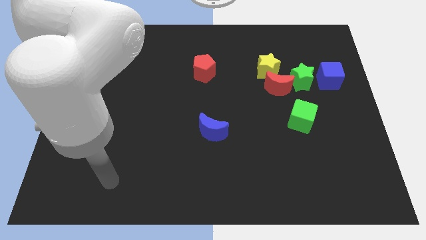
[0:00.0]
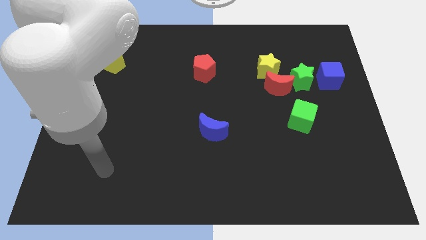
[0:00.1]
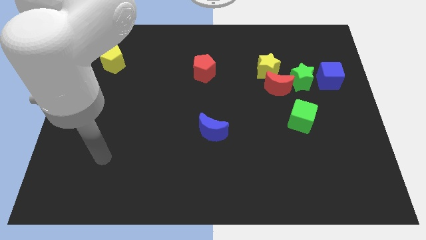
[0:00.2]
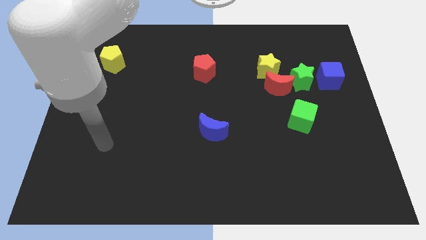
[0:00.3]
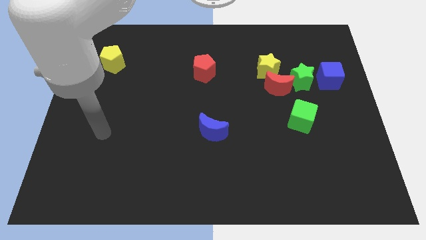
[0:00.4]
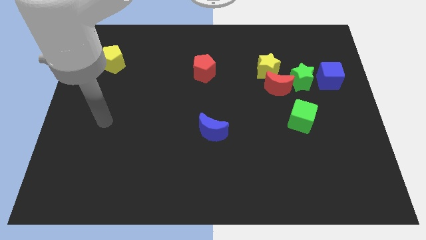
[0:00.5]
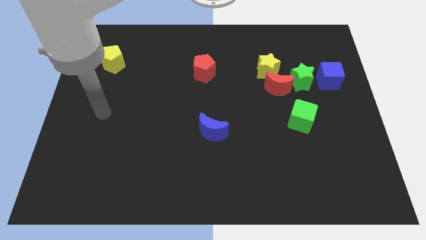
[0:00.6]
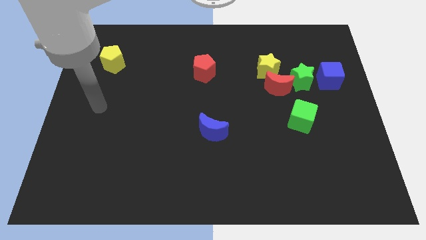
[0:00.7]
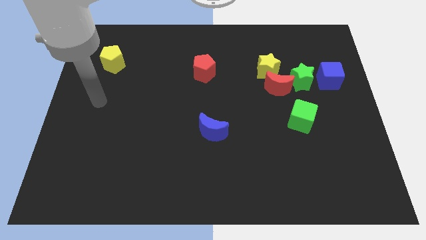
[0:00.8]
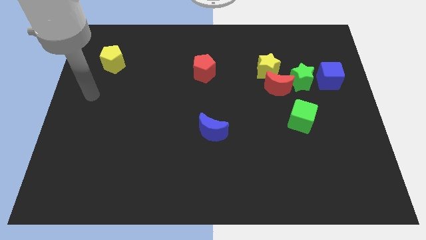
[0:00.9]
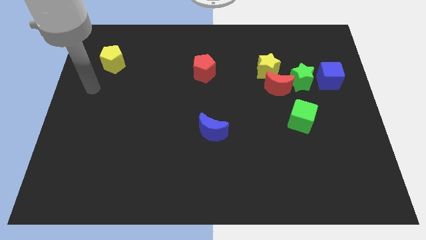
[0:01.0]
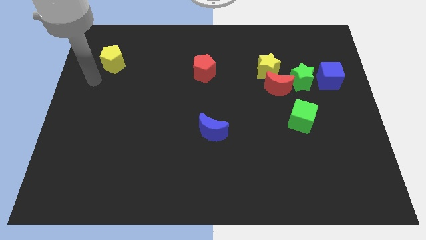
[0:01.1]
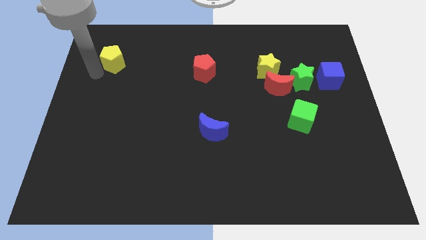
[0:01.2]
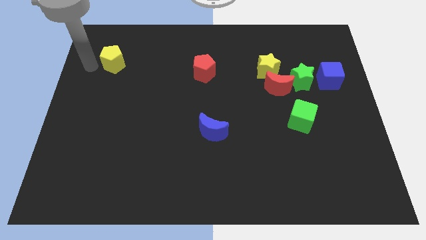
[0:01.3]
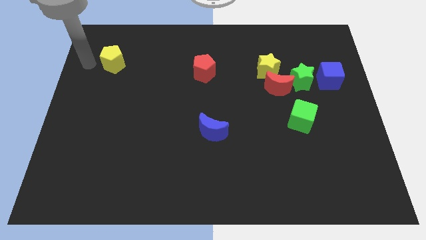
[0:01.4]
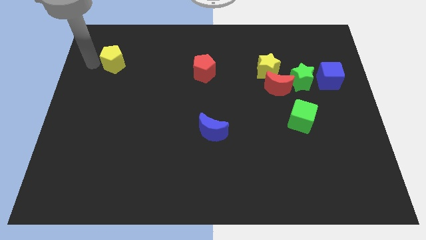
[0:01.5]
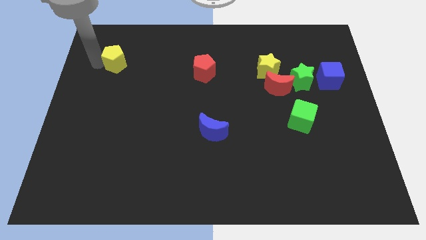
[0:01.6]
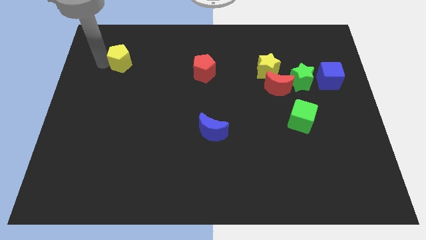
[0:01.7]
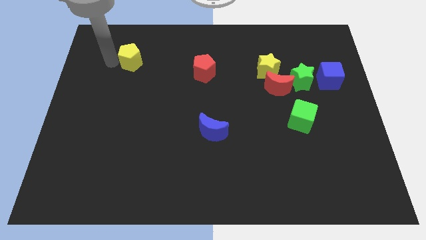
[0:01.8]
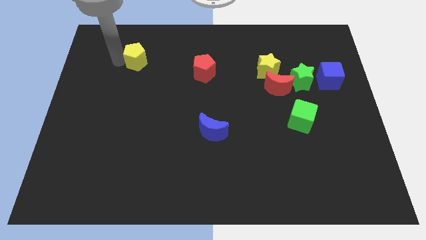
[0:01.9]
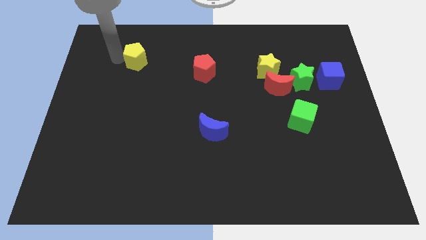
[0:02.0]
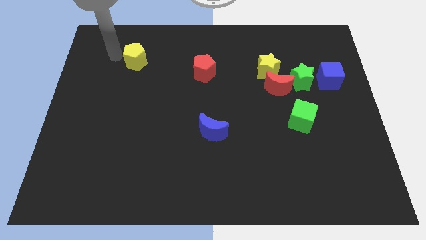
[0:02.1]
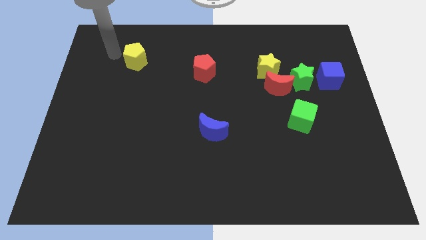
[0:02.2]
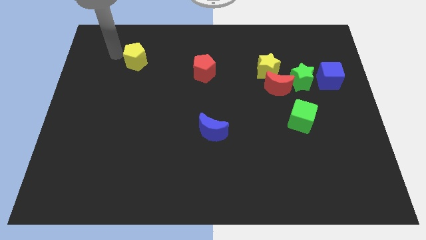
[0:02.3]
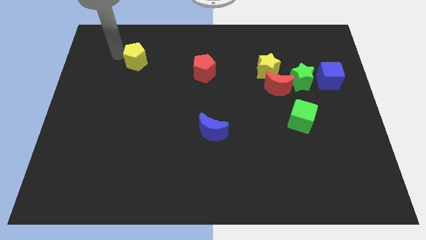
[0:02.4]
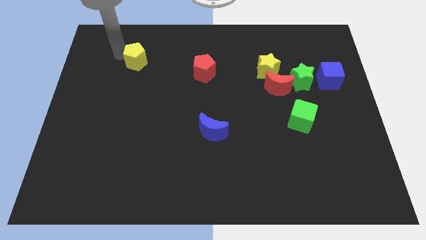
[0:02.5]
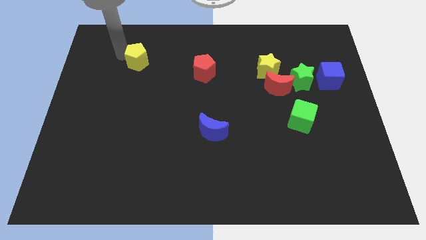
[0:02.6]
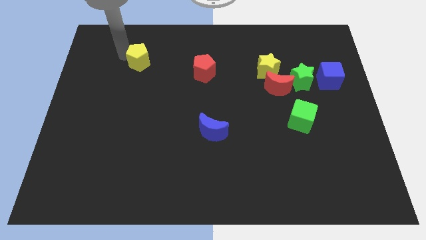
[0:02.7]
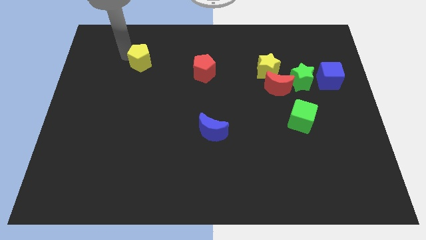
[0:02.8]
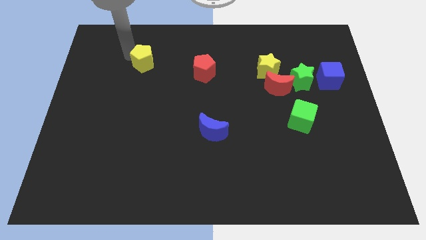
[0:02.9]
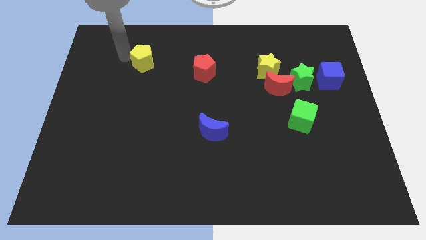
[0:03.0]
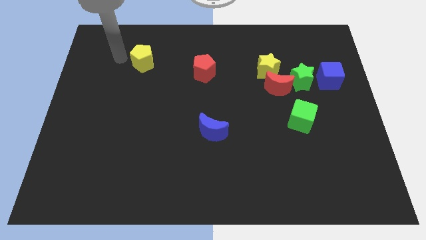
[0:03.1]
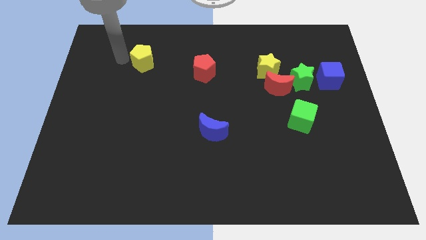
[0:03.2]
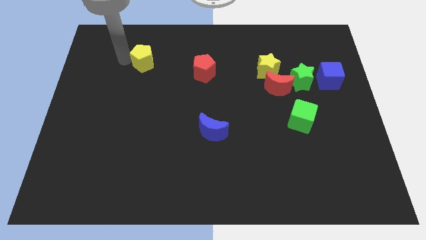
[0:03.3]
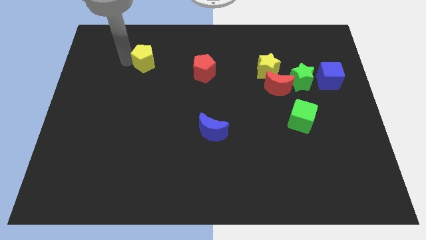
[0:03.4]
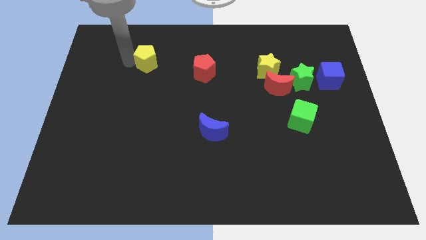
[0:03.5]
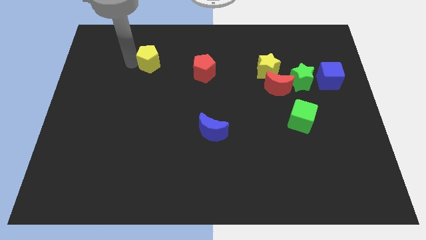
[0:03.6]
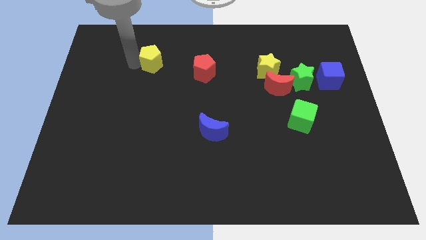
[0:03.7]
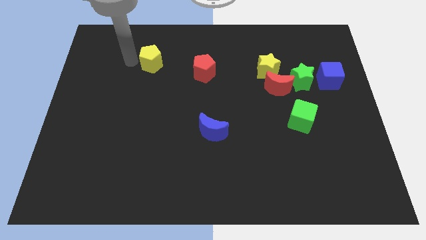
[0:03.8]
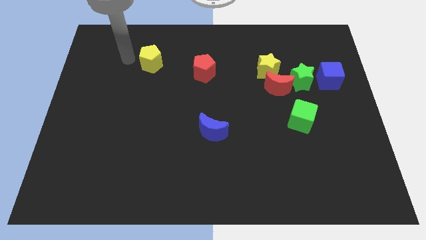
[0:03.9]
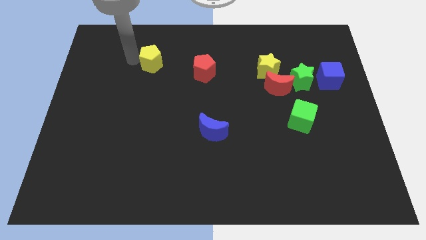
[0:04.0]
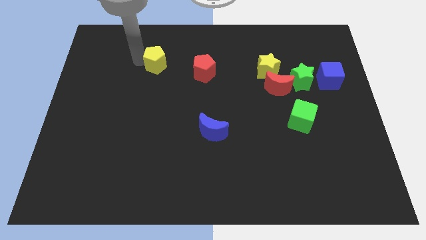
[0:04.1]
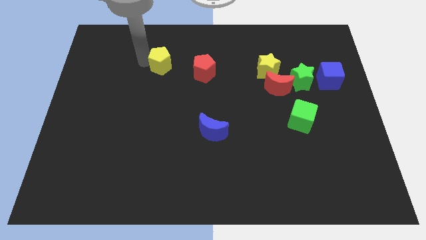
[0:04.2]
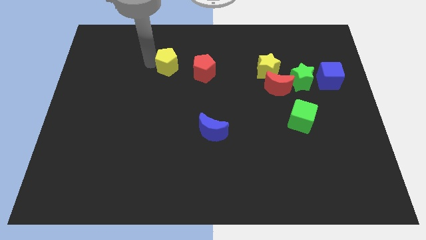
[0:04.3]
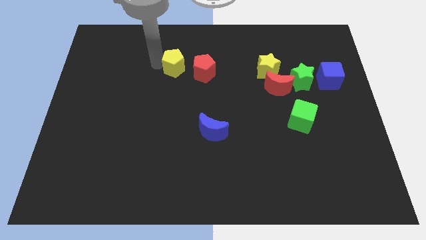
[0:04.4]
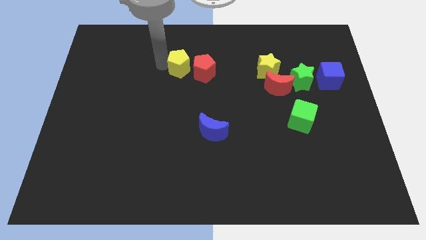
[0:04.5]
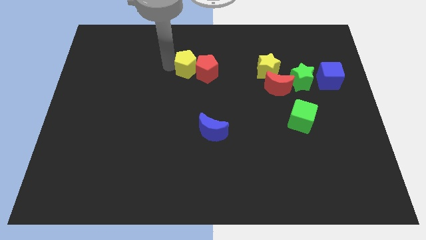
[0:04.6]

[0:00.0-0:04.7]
move the yellow pentagon next to the red pentagon

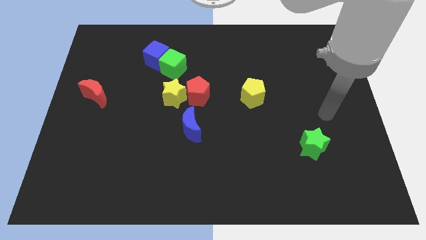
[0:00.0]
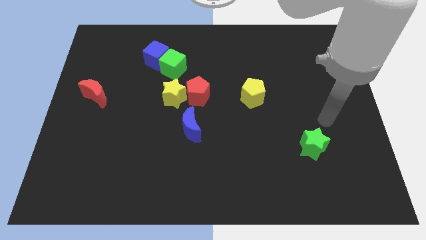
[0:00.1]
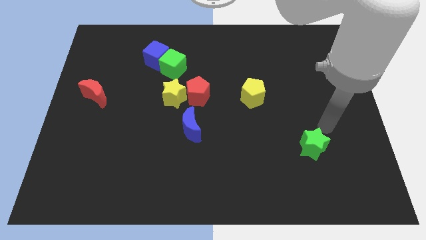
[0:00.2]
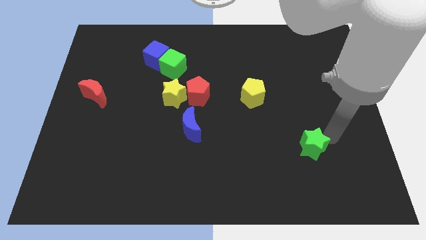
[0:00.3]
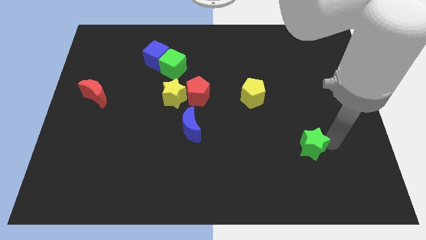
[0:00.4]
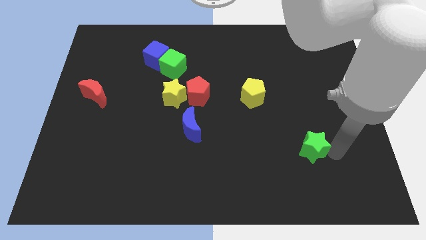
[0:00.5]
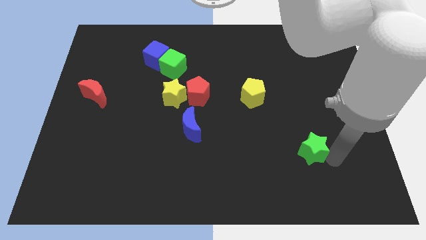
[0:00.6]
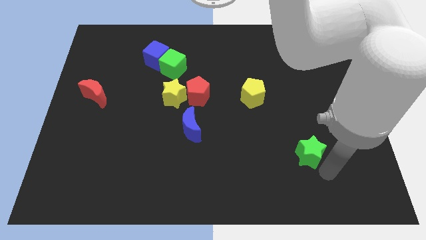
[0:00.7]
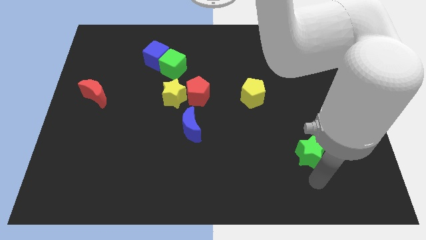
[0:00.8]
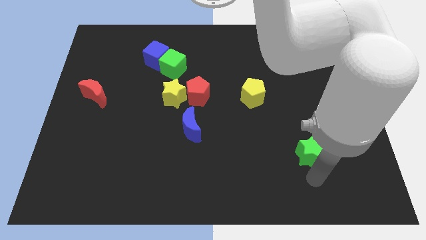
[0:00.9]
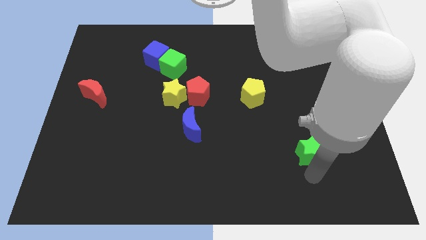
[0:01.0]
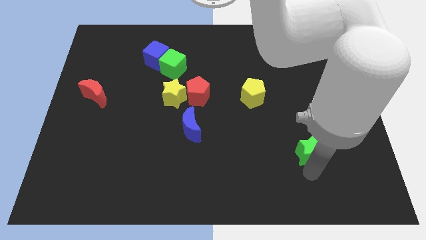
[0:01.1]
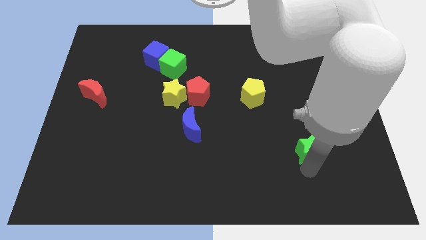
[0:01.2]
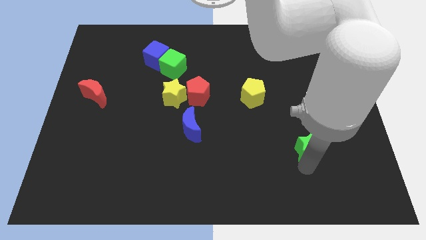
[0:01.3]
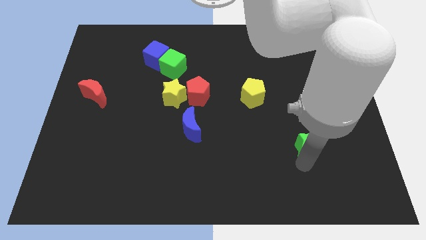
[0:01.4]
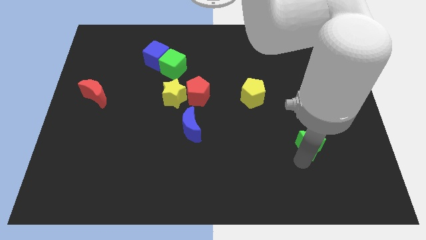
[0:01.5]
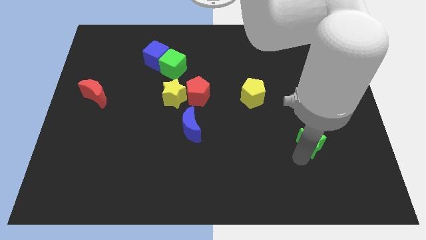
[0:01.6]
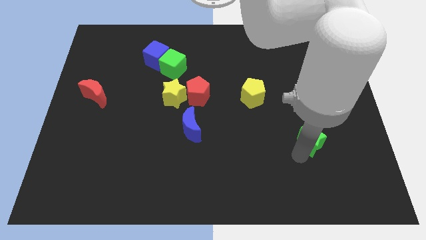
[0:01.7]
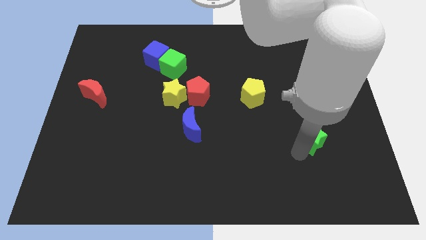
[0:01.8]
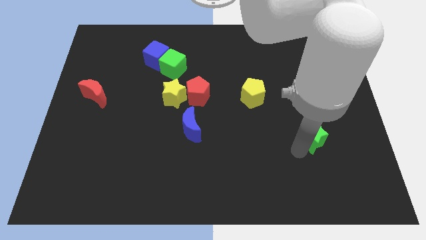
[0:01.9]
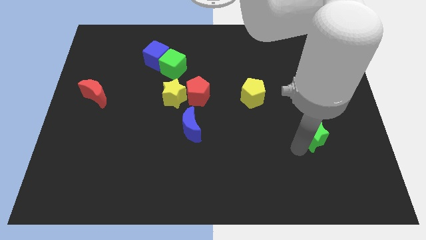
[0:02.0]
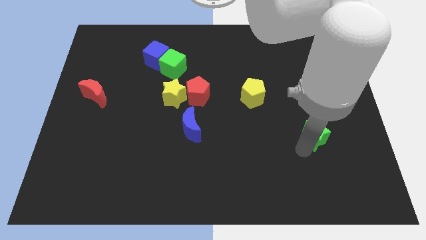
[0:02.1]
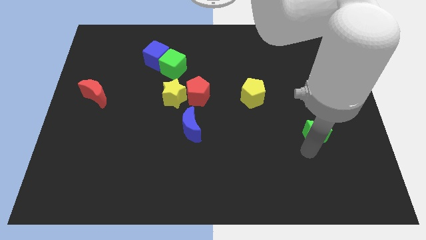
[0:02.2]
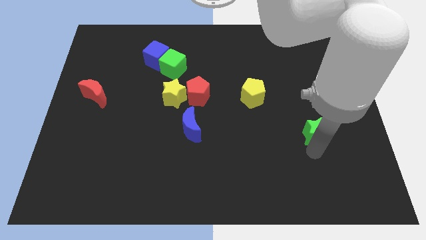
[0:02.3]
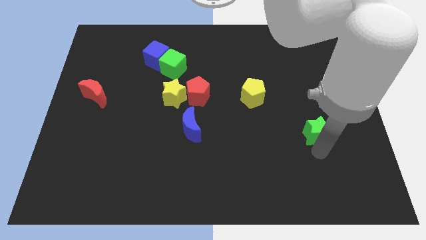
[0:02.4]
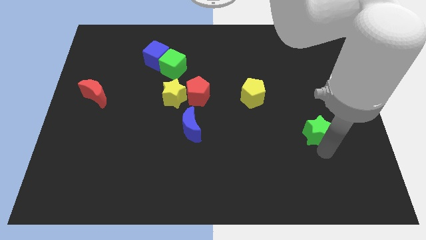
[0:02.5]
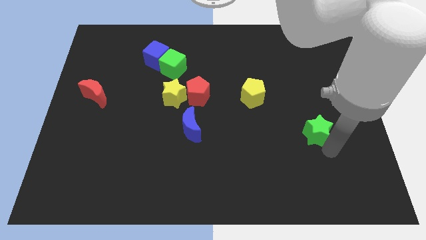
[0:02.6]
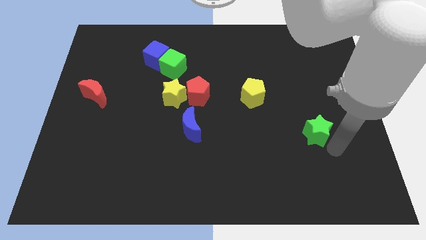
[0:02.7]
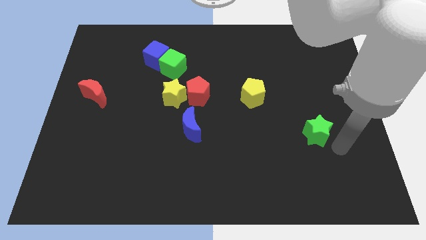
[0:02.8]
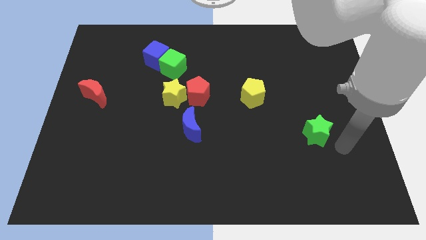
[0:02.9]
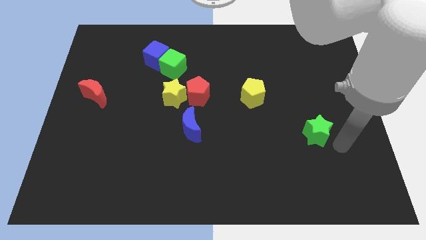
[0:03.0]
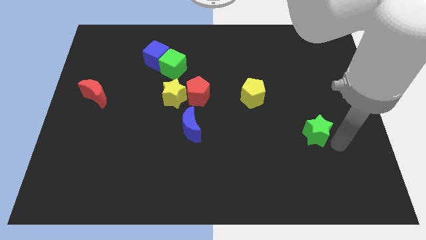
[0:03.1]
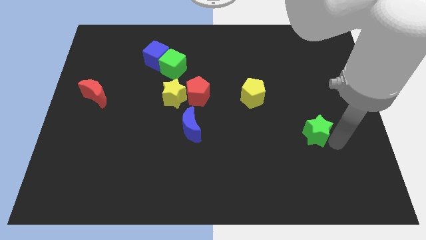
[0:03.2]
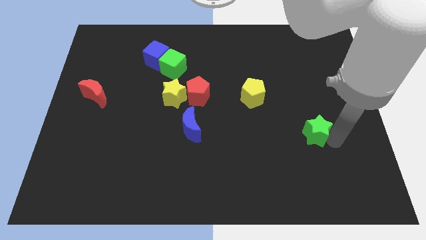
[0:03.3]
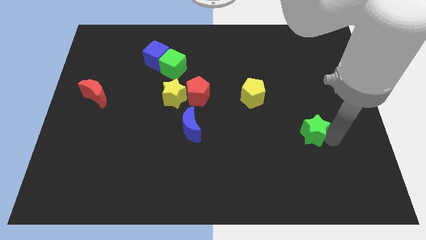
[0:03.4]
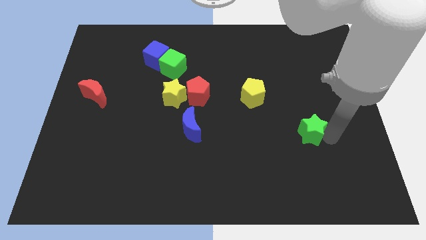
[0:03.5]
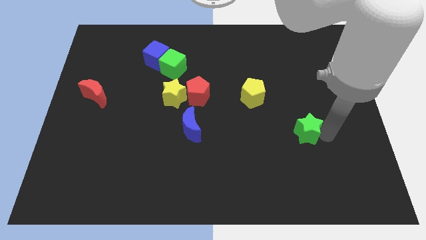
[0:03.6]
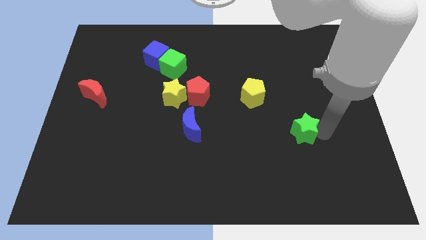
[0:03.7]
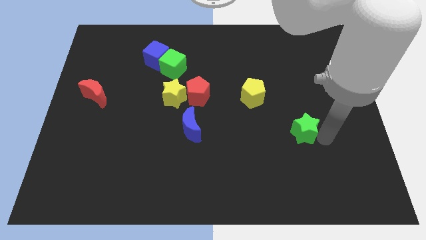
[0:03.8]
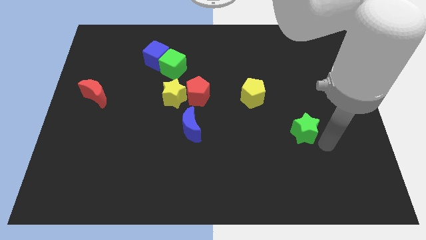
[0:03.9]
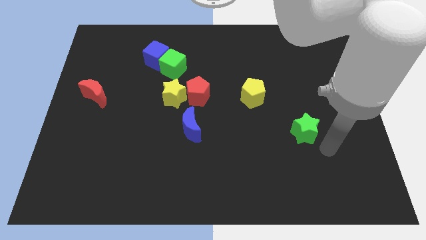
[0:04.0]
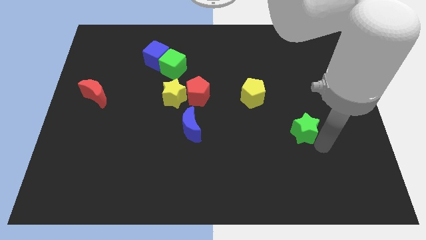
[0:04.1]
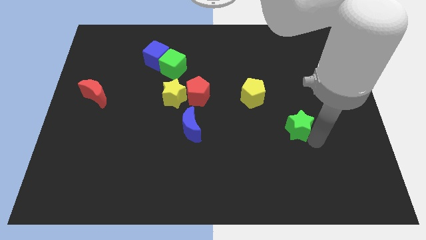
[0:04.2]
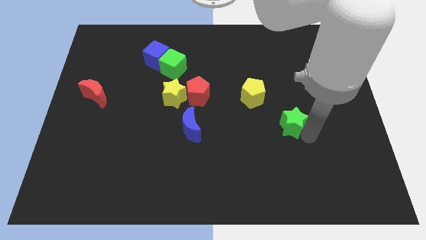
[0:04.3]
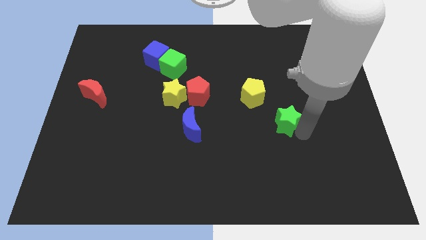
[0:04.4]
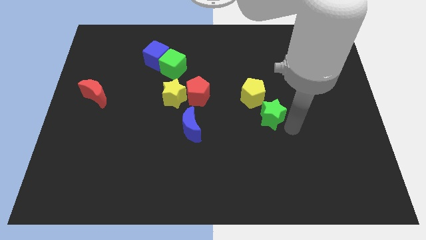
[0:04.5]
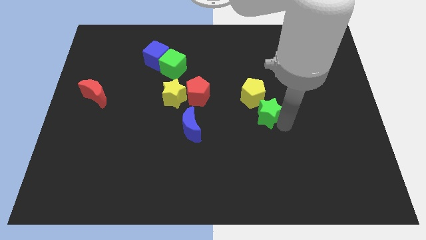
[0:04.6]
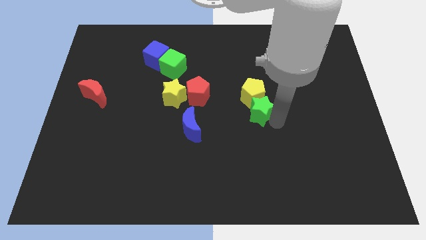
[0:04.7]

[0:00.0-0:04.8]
put the green star to the yellow pentagon
